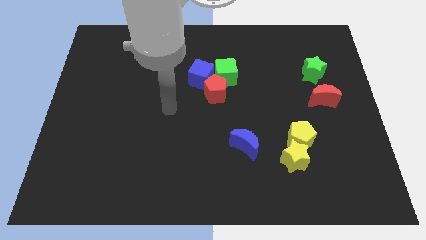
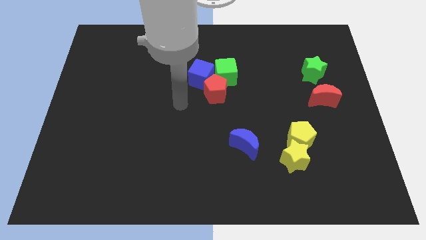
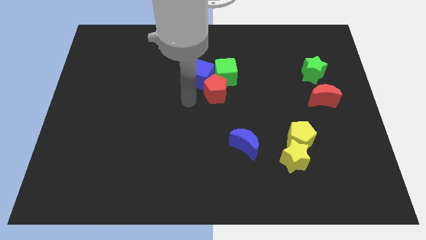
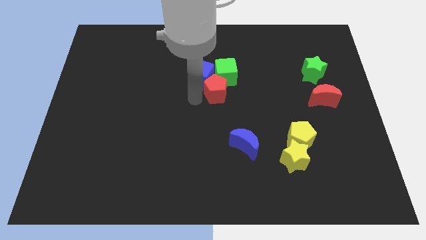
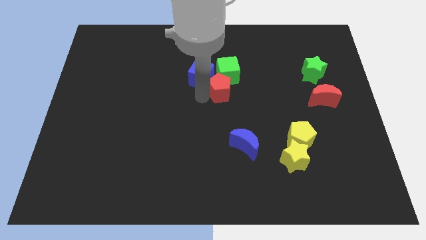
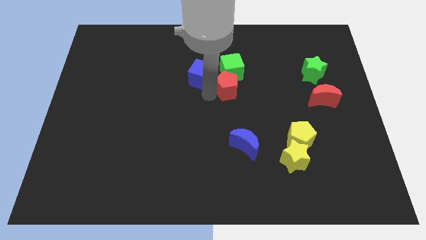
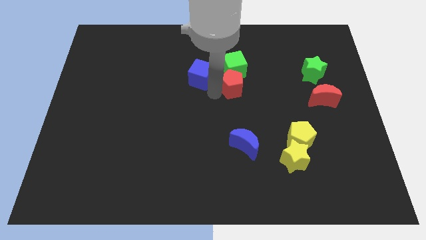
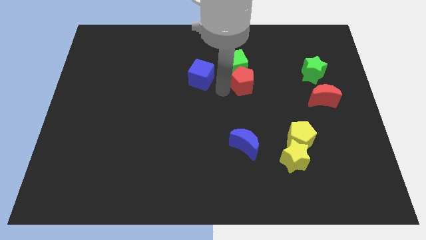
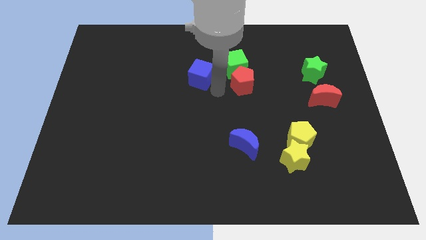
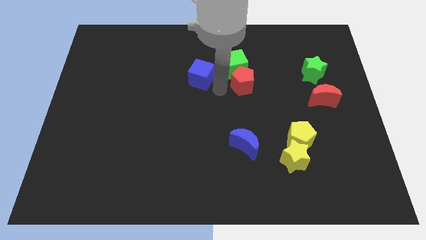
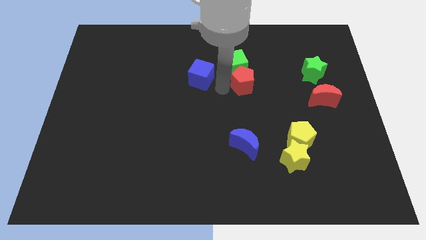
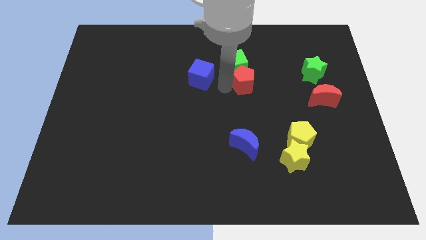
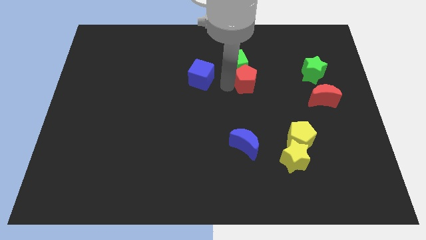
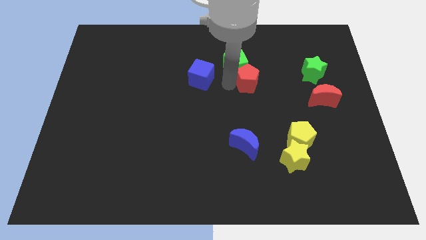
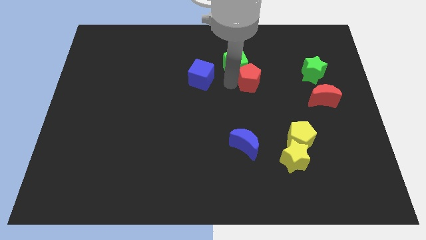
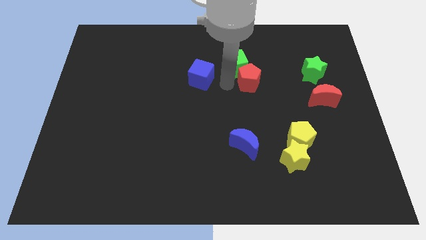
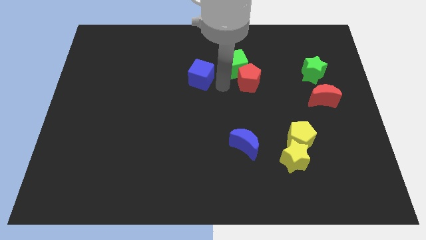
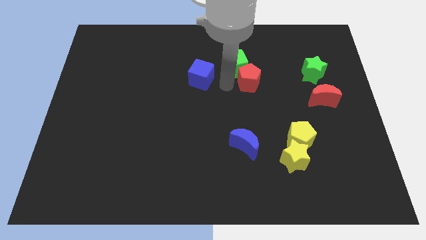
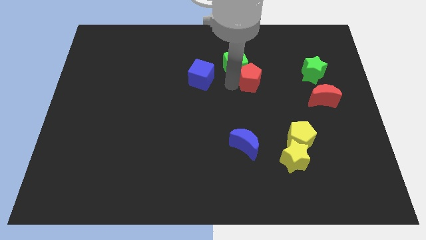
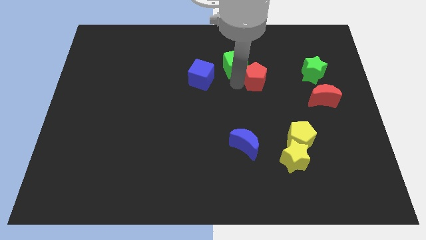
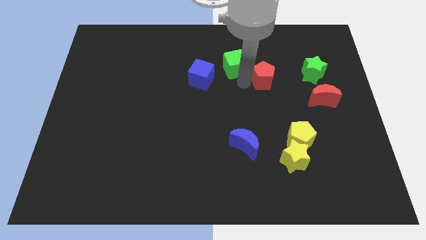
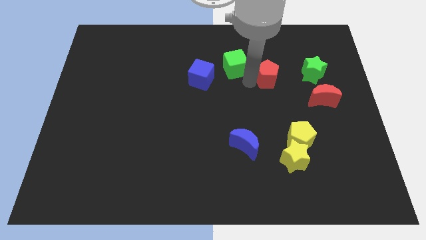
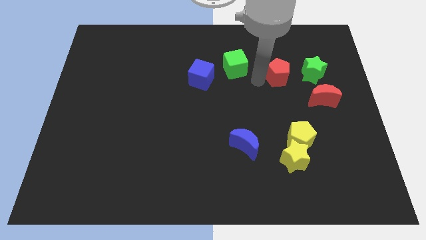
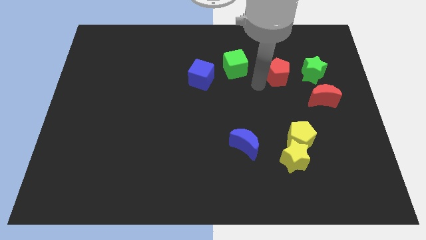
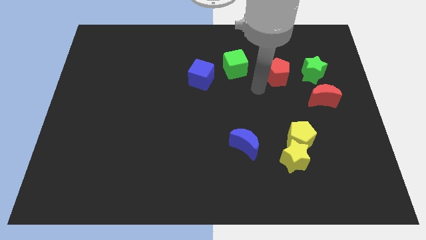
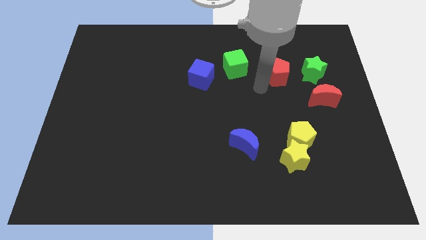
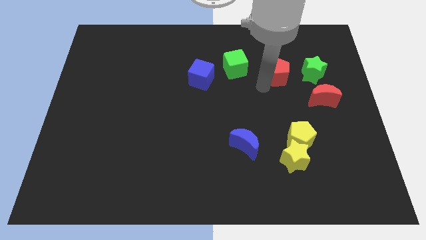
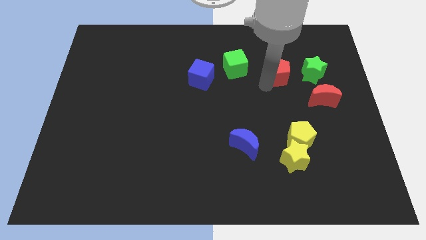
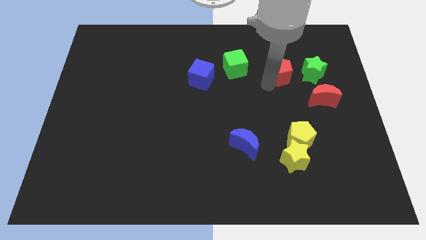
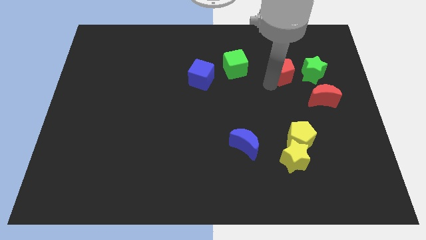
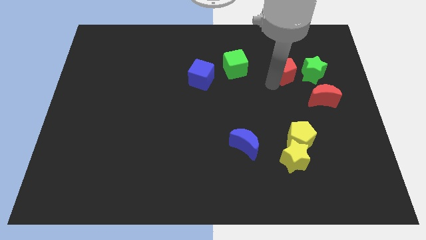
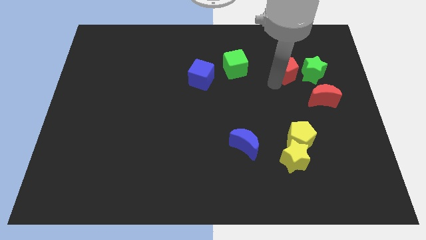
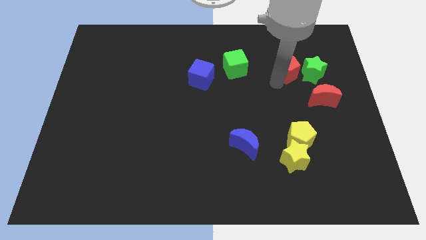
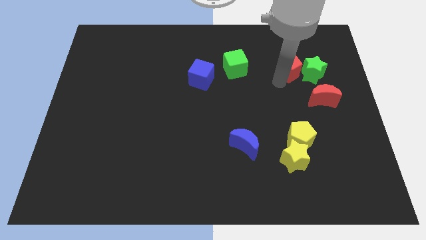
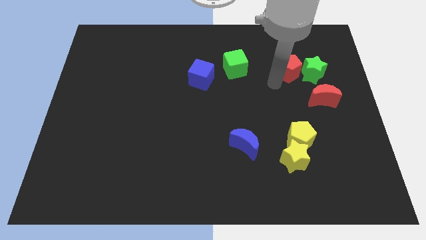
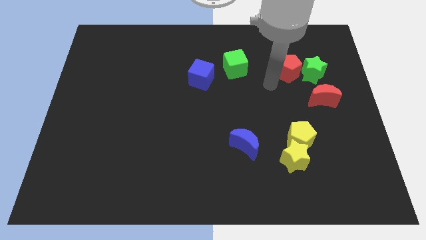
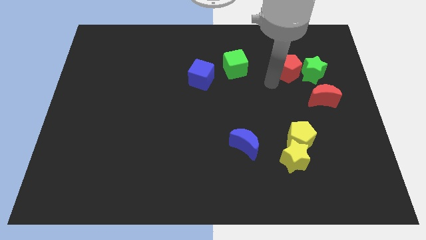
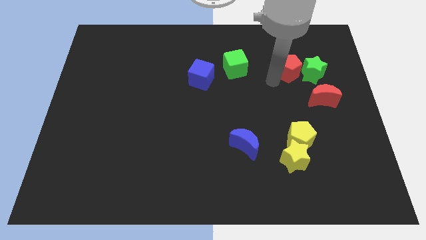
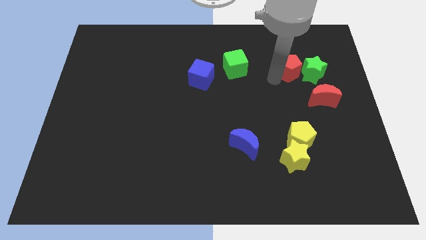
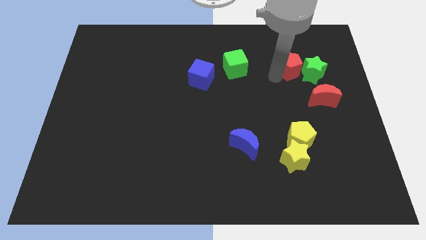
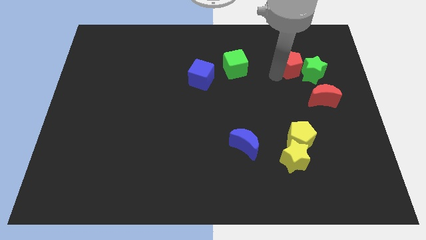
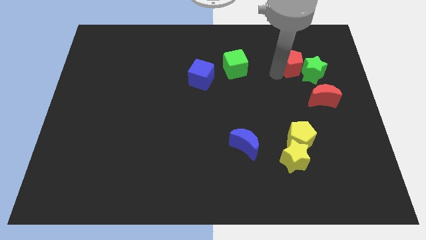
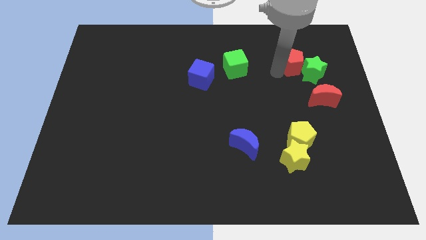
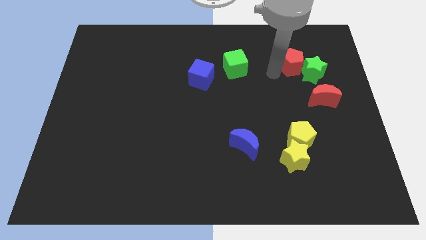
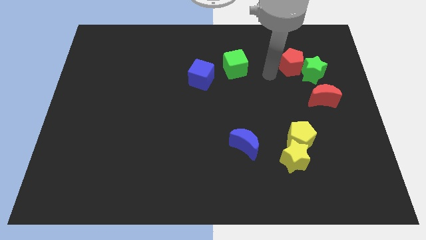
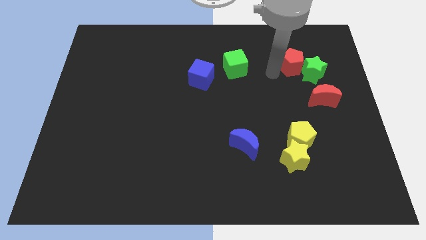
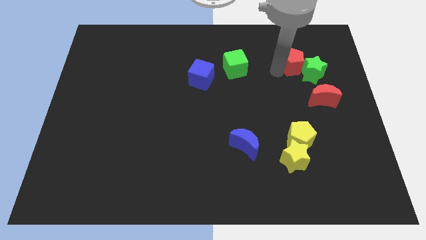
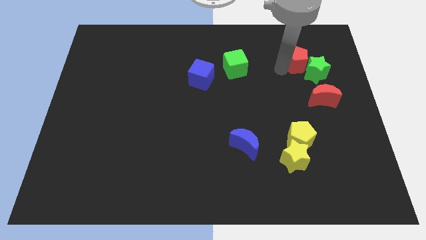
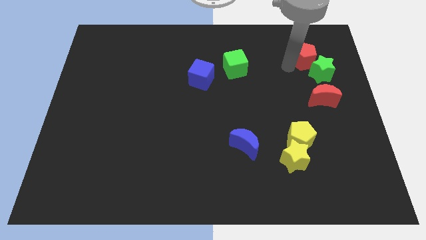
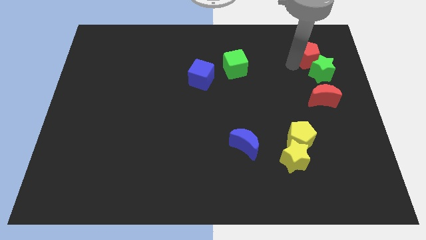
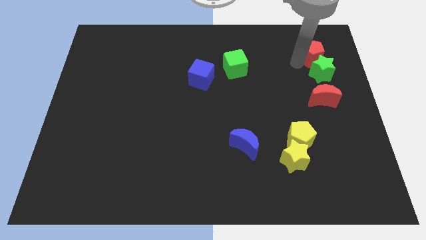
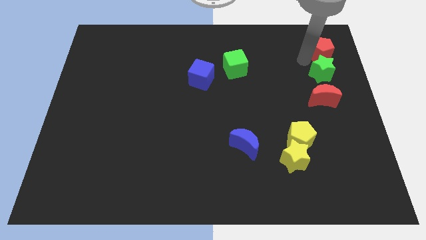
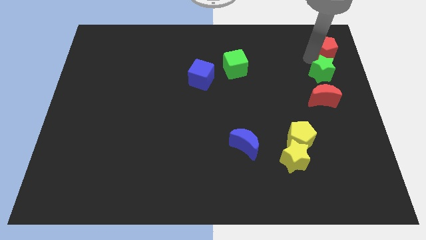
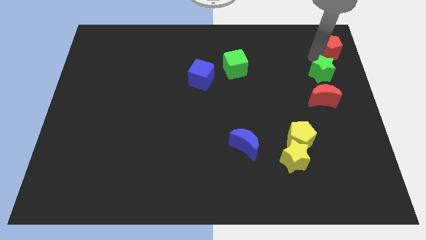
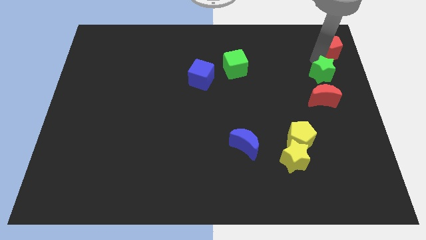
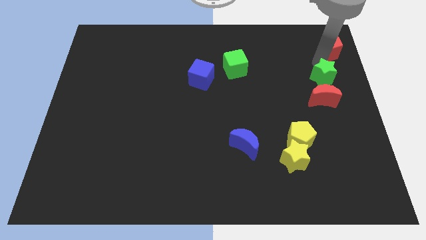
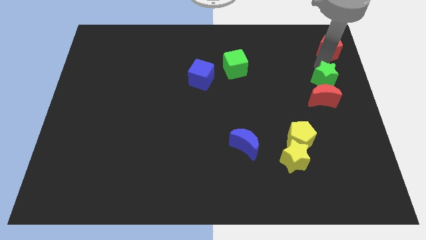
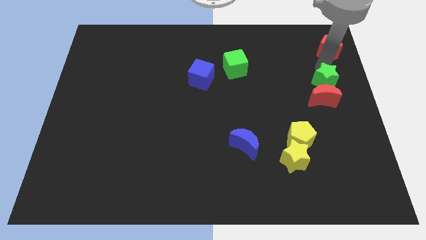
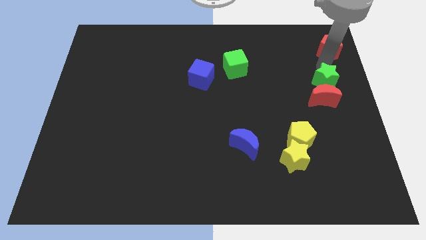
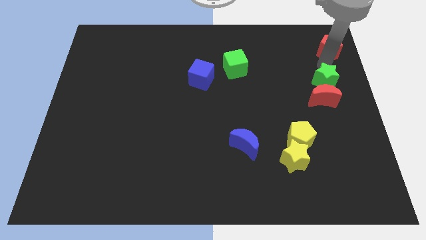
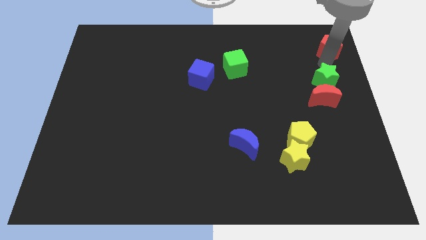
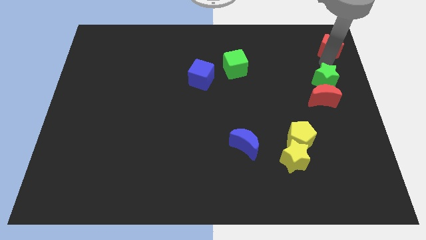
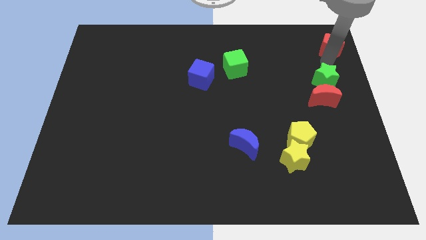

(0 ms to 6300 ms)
push the red pentagon to the top right
